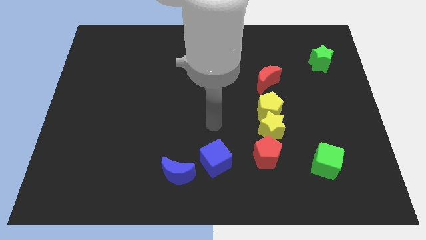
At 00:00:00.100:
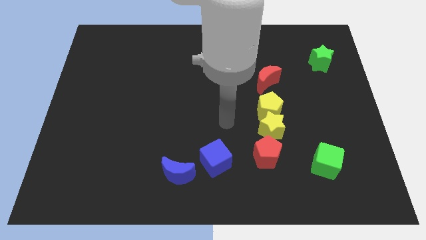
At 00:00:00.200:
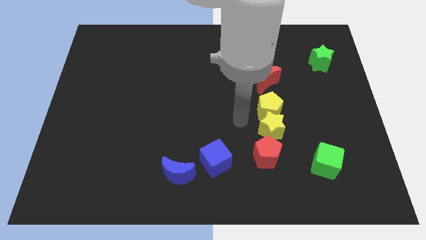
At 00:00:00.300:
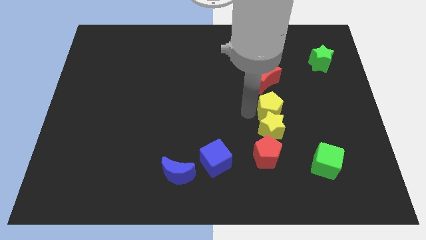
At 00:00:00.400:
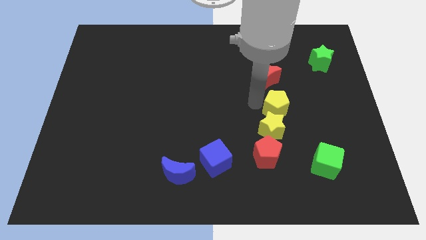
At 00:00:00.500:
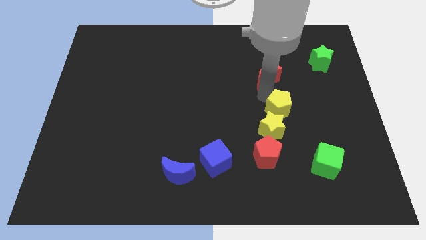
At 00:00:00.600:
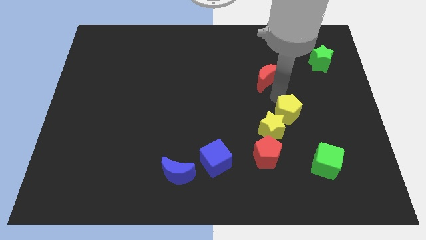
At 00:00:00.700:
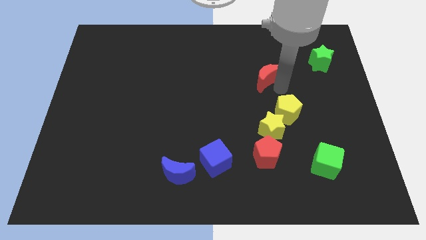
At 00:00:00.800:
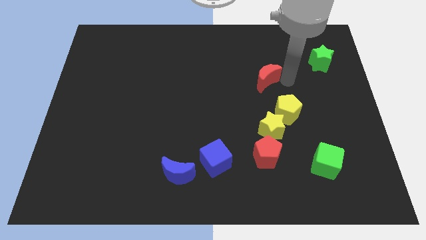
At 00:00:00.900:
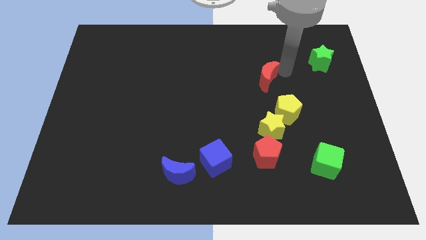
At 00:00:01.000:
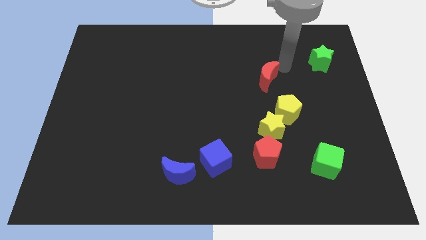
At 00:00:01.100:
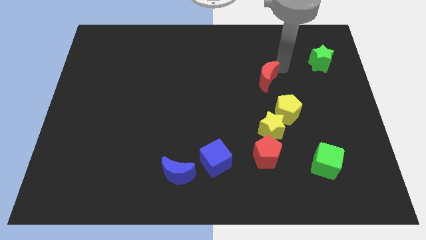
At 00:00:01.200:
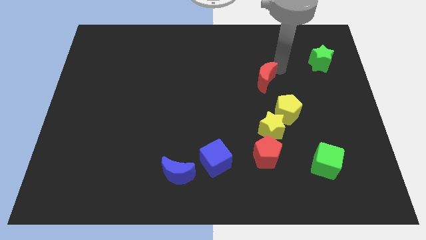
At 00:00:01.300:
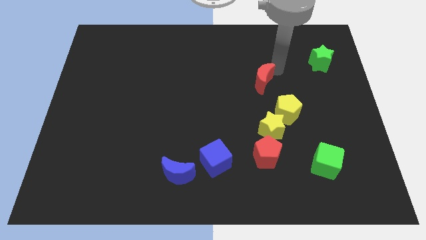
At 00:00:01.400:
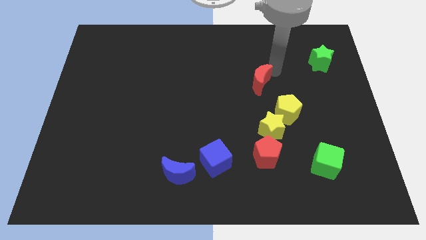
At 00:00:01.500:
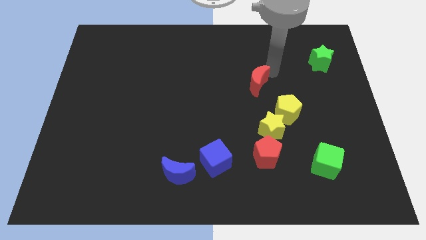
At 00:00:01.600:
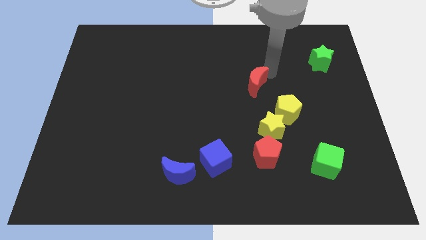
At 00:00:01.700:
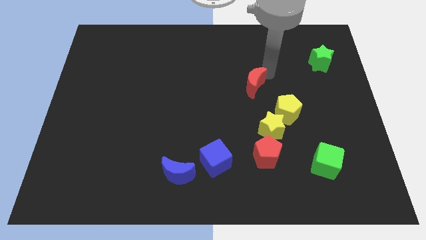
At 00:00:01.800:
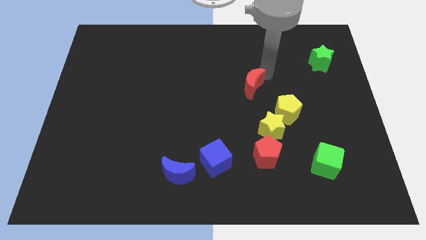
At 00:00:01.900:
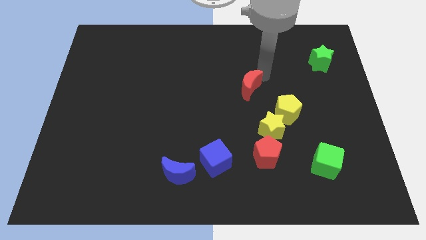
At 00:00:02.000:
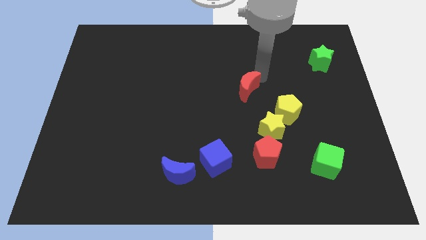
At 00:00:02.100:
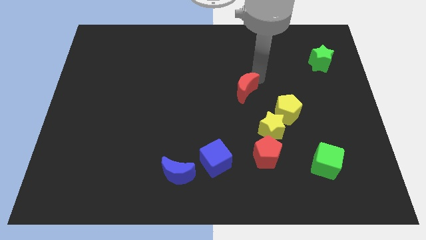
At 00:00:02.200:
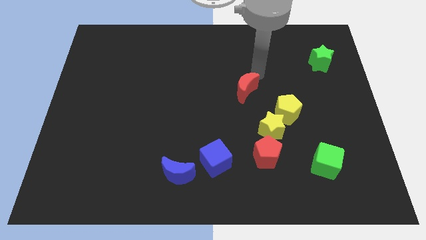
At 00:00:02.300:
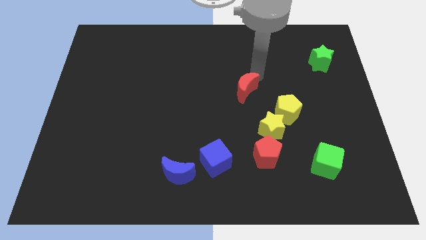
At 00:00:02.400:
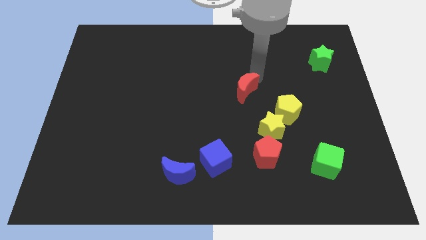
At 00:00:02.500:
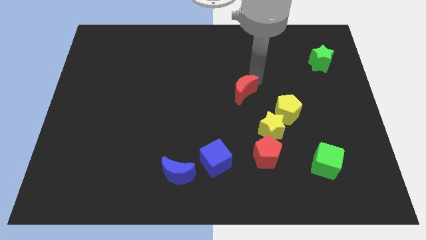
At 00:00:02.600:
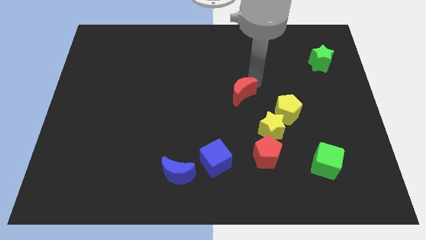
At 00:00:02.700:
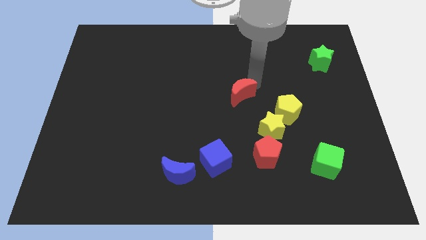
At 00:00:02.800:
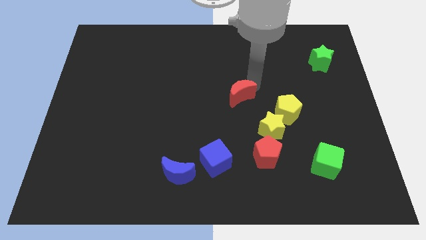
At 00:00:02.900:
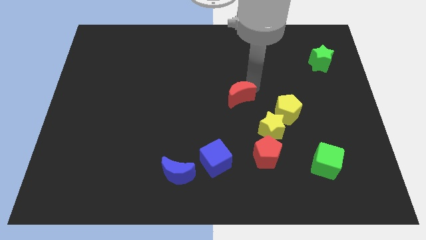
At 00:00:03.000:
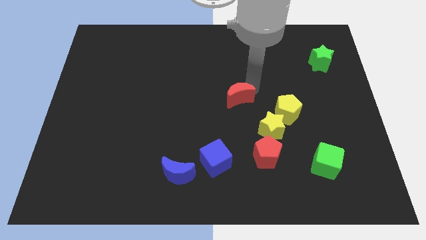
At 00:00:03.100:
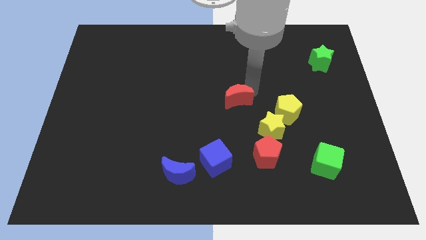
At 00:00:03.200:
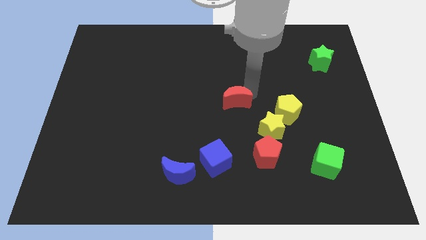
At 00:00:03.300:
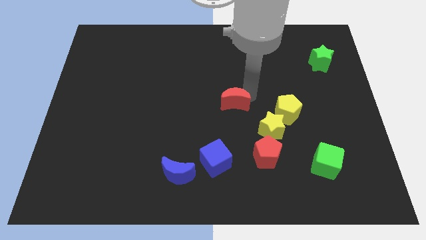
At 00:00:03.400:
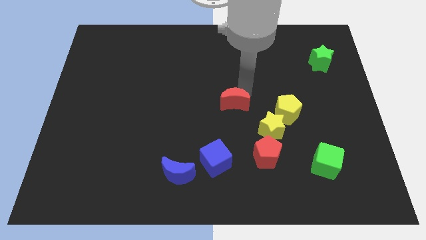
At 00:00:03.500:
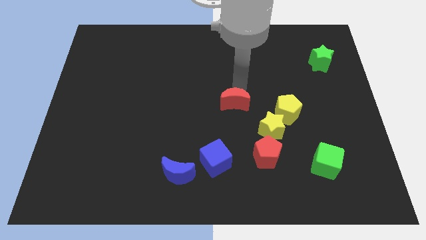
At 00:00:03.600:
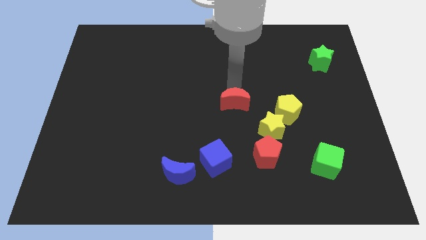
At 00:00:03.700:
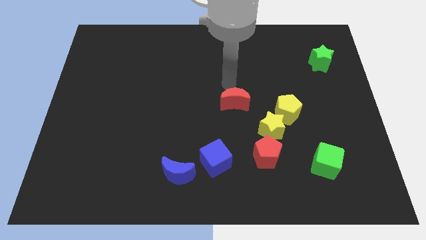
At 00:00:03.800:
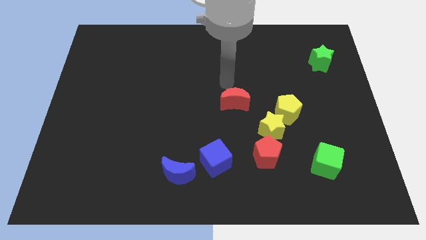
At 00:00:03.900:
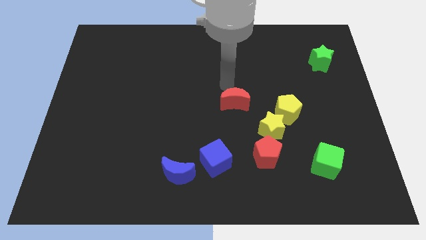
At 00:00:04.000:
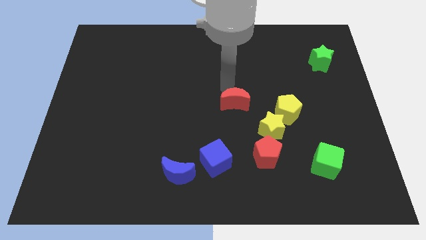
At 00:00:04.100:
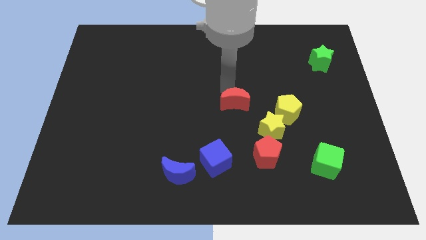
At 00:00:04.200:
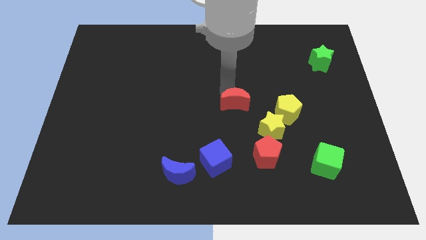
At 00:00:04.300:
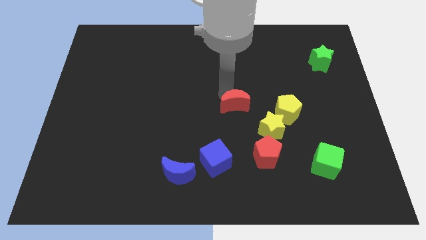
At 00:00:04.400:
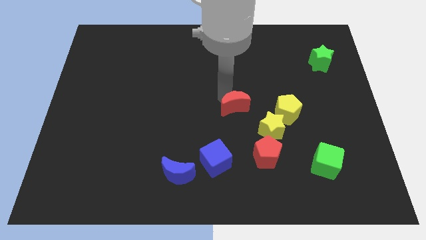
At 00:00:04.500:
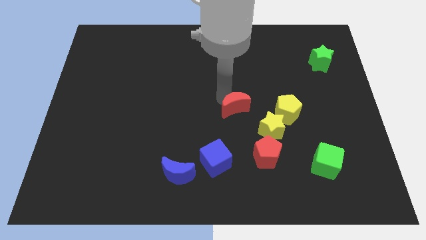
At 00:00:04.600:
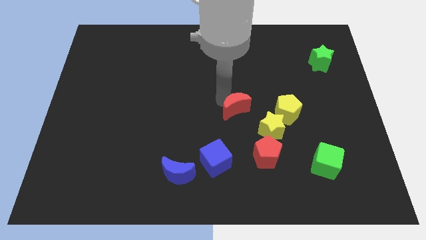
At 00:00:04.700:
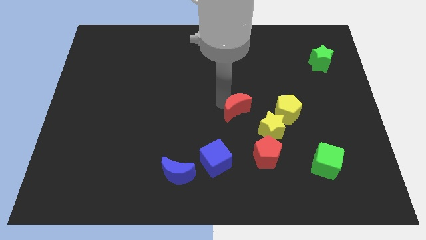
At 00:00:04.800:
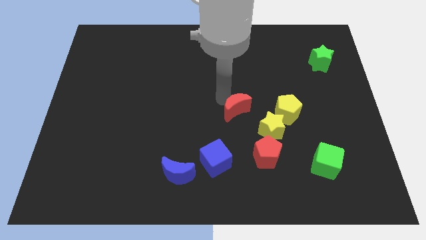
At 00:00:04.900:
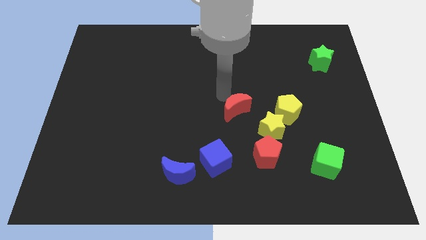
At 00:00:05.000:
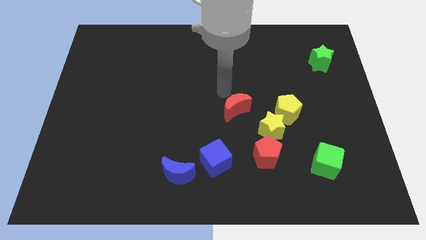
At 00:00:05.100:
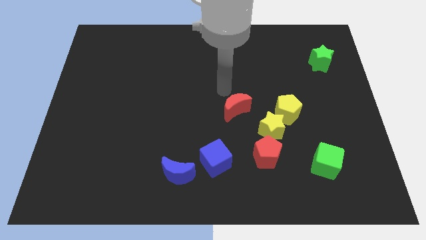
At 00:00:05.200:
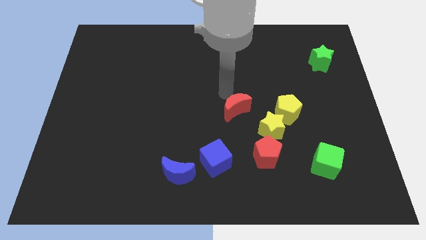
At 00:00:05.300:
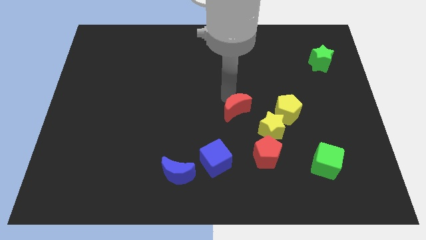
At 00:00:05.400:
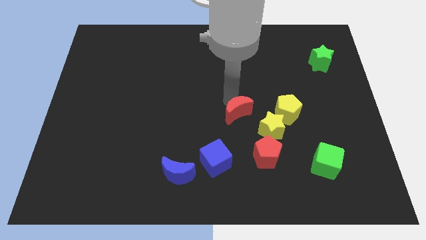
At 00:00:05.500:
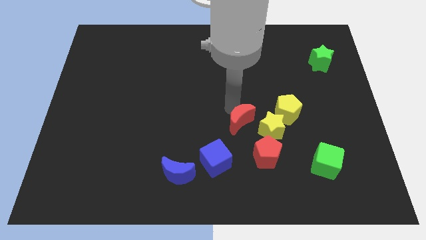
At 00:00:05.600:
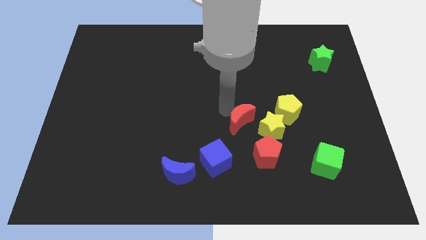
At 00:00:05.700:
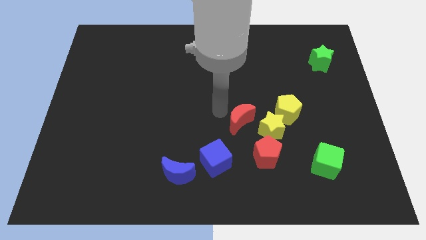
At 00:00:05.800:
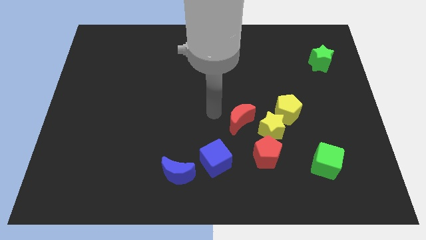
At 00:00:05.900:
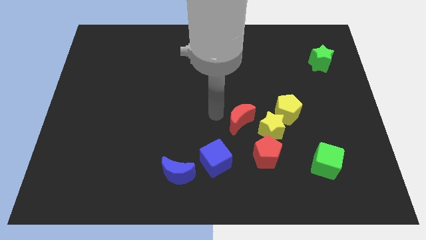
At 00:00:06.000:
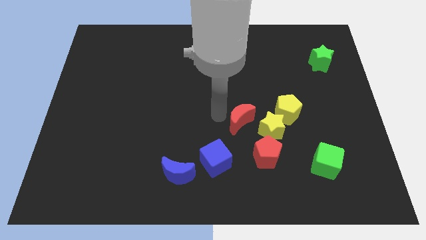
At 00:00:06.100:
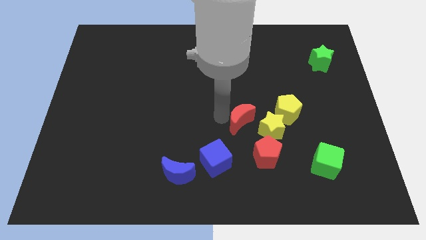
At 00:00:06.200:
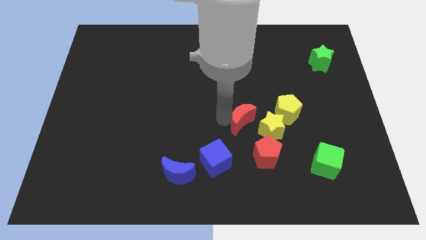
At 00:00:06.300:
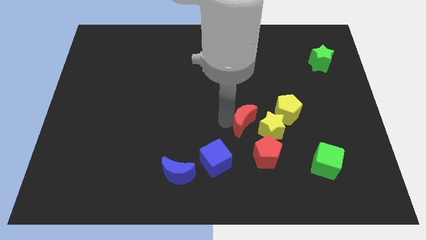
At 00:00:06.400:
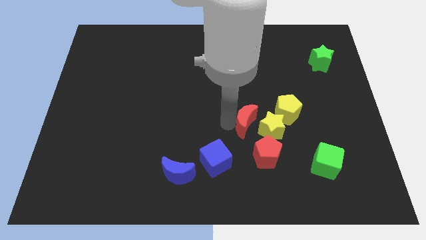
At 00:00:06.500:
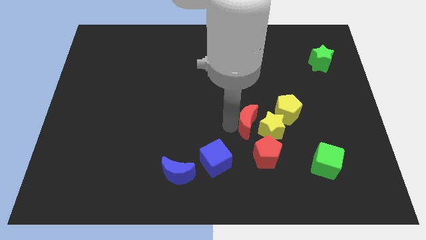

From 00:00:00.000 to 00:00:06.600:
put the red moon close to the yellow star
